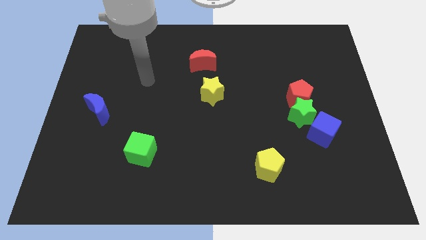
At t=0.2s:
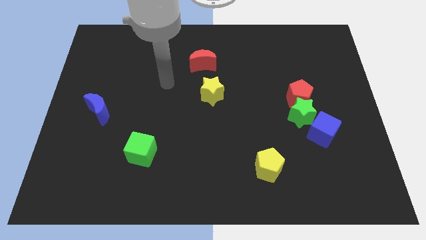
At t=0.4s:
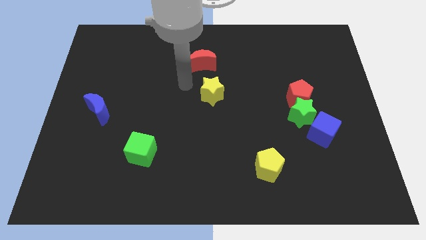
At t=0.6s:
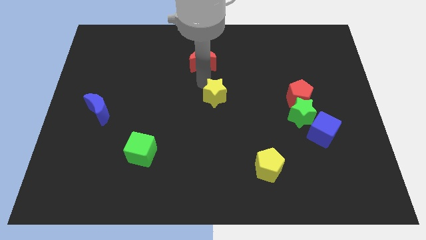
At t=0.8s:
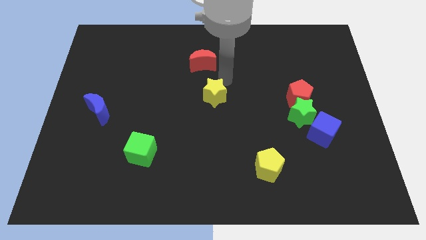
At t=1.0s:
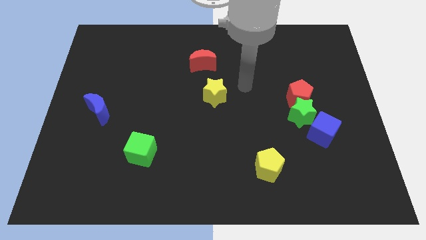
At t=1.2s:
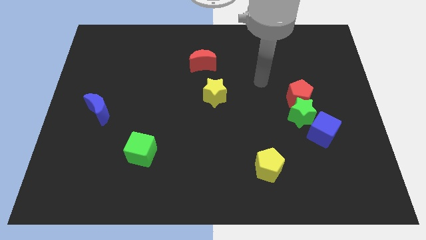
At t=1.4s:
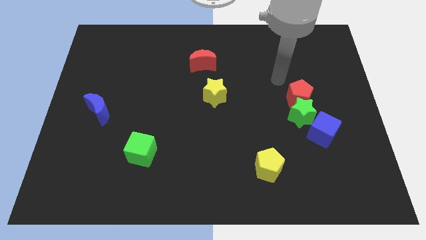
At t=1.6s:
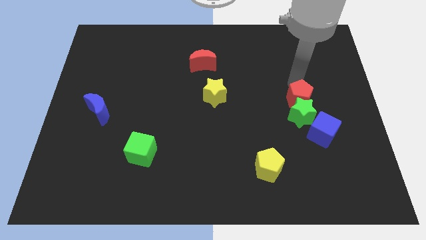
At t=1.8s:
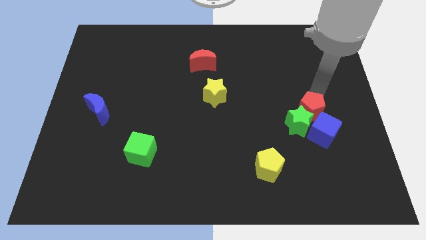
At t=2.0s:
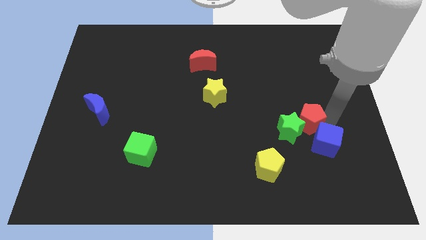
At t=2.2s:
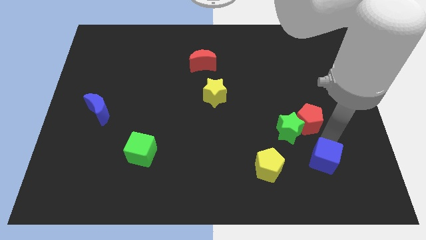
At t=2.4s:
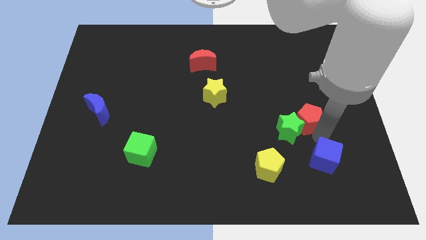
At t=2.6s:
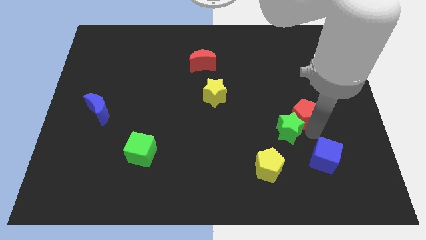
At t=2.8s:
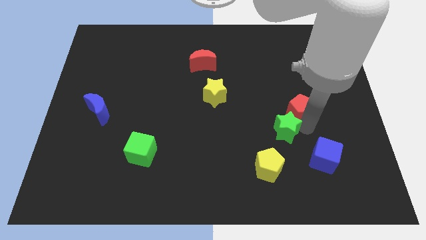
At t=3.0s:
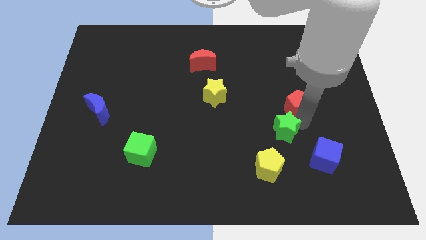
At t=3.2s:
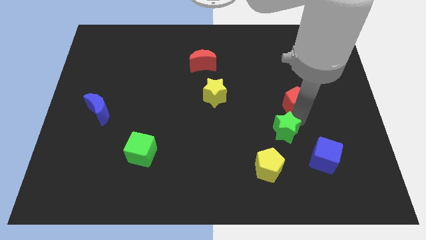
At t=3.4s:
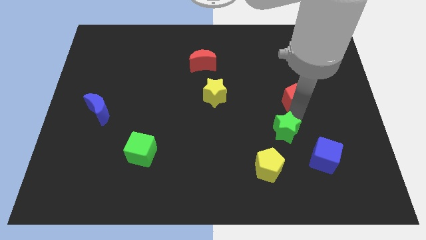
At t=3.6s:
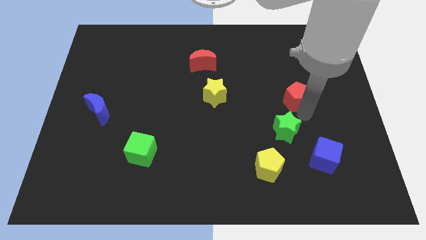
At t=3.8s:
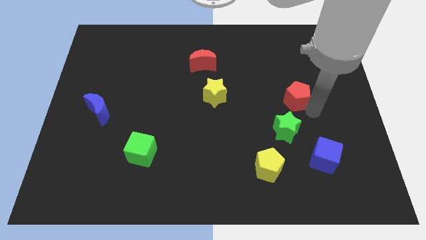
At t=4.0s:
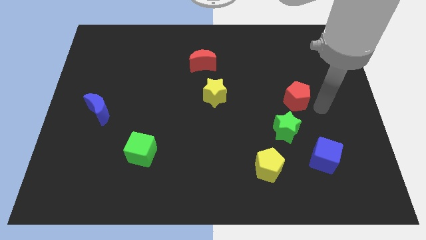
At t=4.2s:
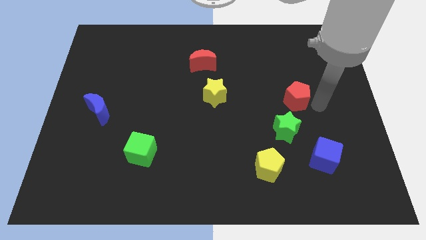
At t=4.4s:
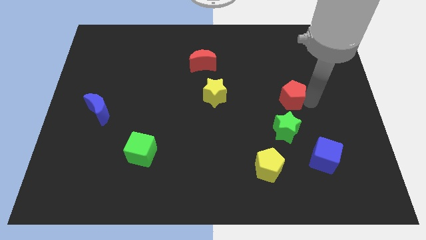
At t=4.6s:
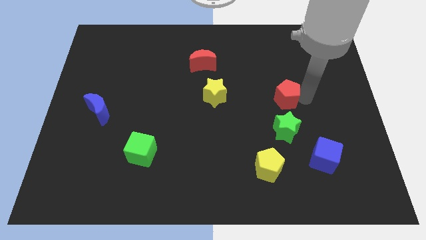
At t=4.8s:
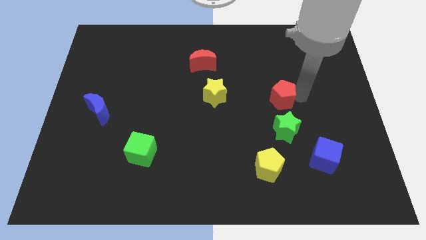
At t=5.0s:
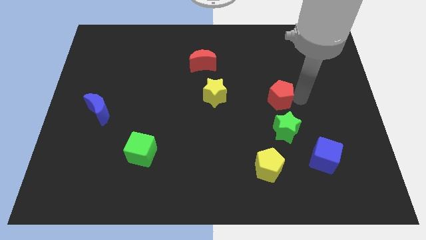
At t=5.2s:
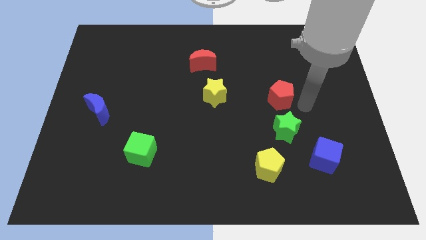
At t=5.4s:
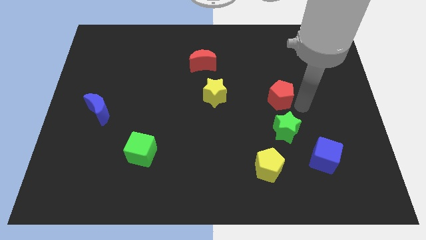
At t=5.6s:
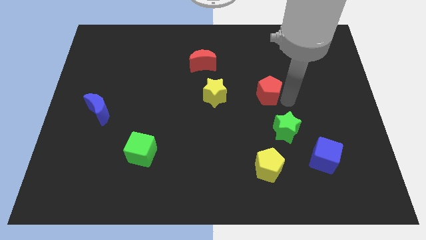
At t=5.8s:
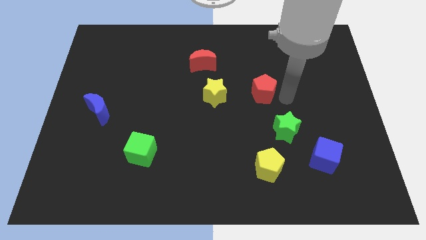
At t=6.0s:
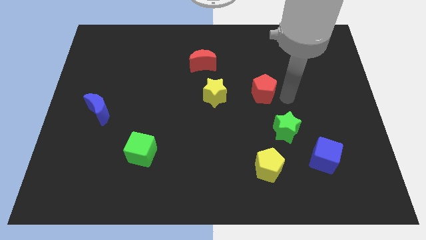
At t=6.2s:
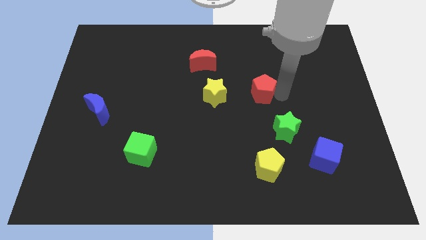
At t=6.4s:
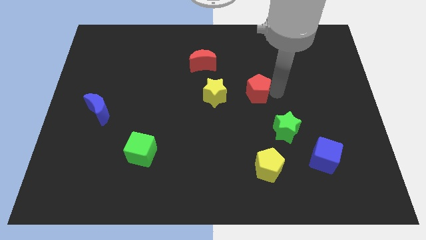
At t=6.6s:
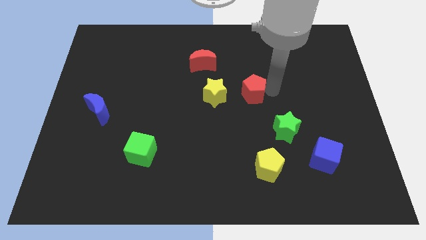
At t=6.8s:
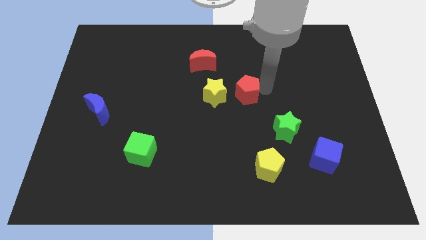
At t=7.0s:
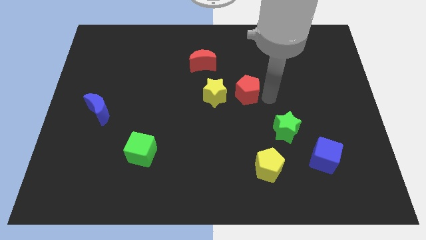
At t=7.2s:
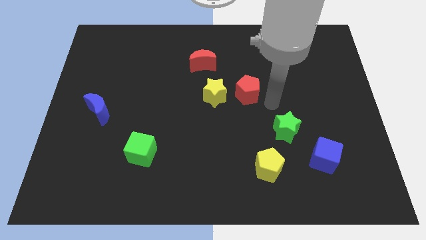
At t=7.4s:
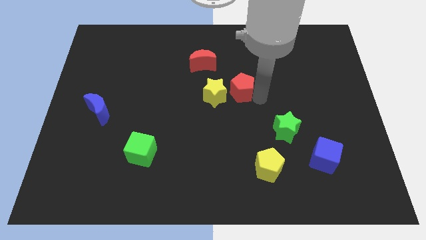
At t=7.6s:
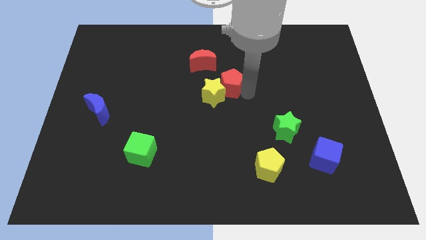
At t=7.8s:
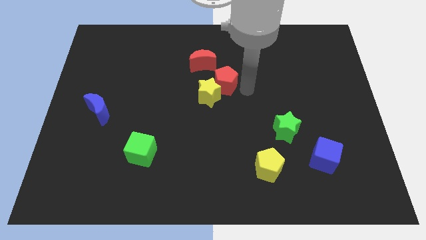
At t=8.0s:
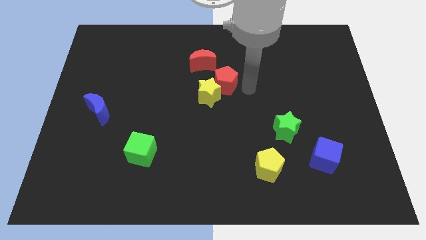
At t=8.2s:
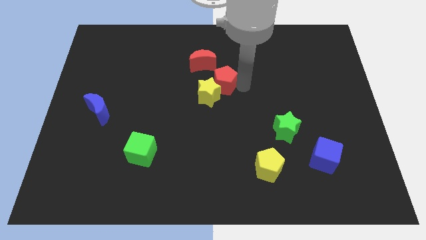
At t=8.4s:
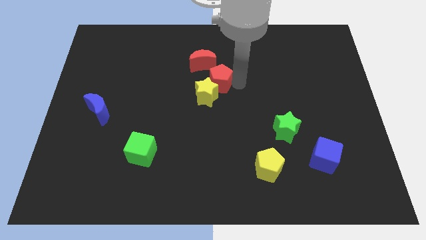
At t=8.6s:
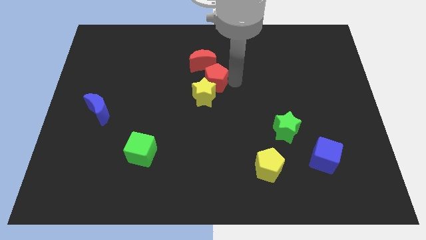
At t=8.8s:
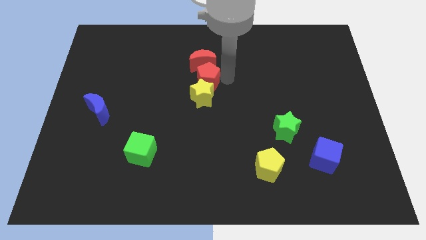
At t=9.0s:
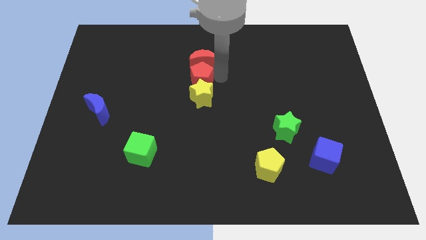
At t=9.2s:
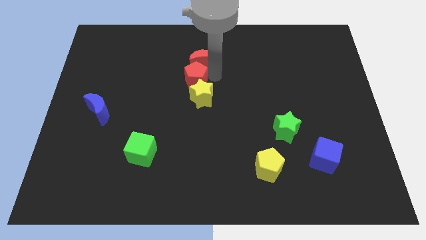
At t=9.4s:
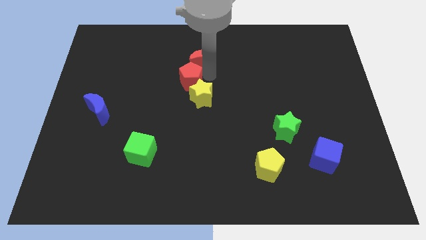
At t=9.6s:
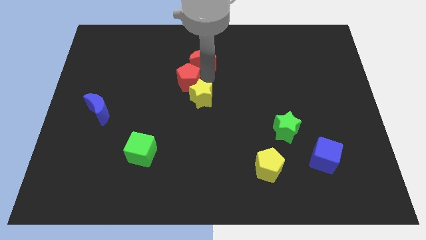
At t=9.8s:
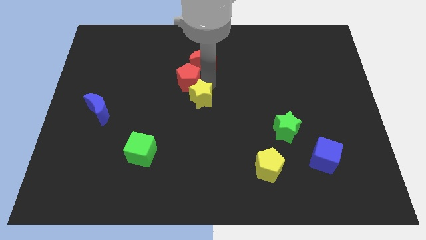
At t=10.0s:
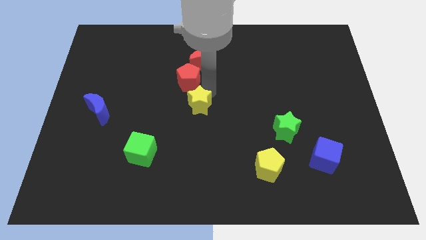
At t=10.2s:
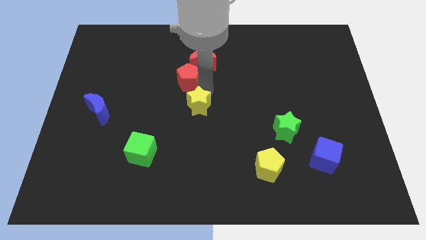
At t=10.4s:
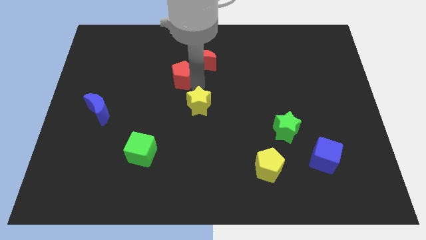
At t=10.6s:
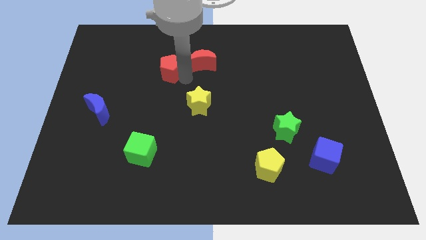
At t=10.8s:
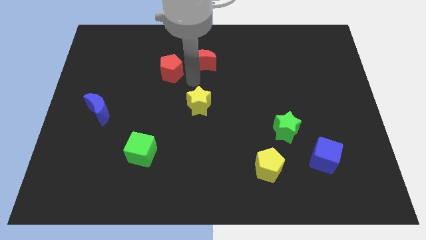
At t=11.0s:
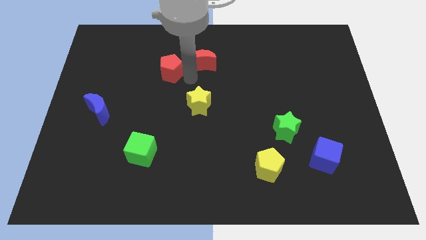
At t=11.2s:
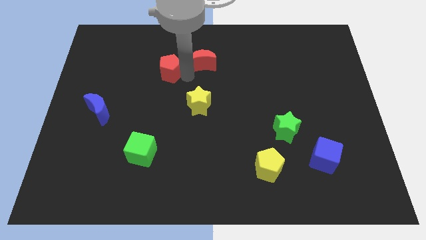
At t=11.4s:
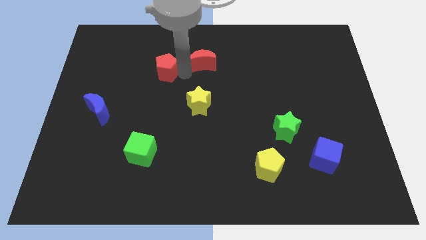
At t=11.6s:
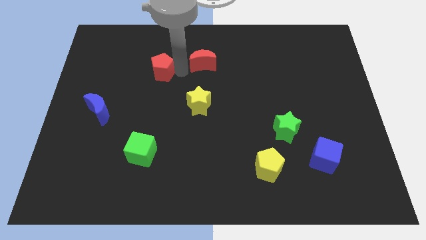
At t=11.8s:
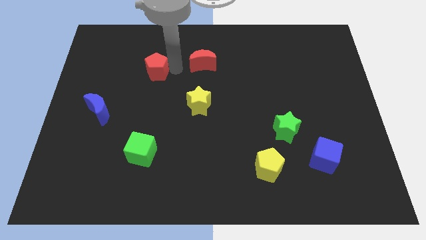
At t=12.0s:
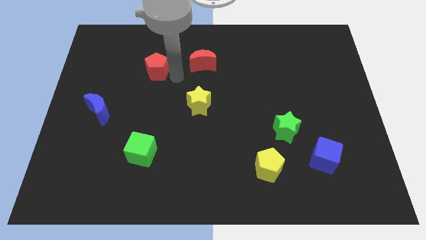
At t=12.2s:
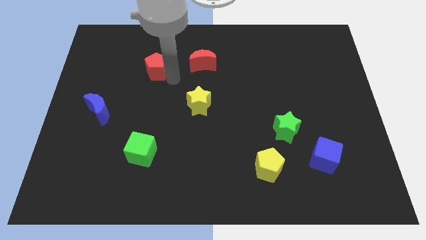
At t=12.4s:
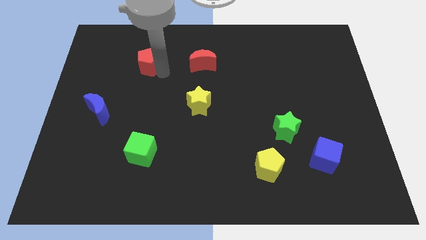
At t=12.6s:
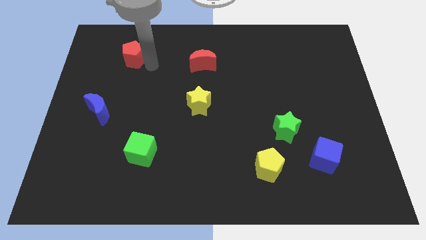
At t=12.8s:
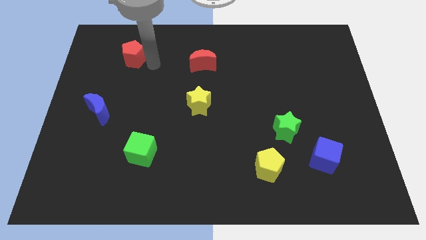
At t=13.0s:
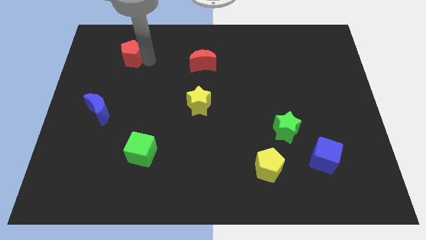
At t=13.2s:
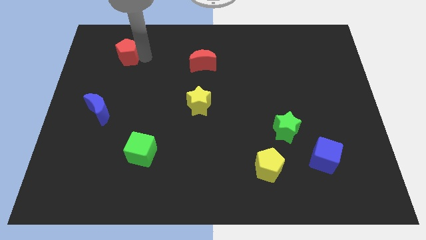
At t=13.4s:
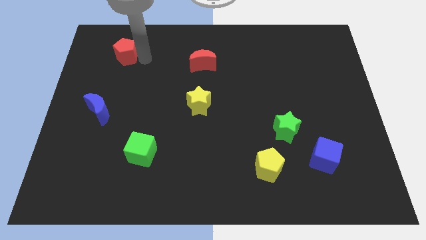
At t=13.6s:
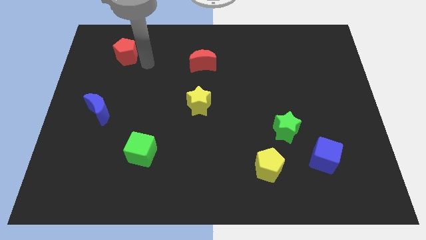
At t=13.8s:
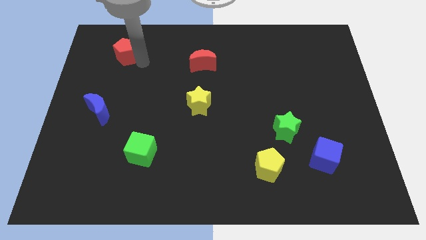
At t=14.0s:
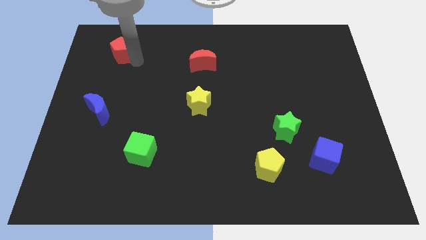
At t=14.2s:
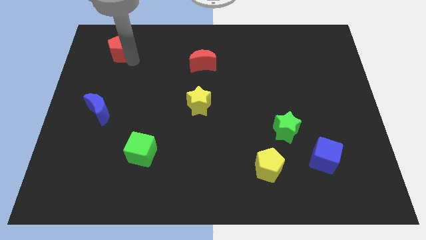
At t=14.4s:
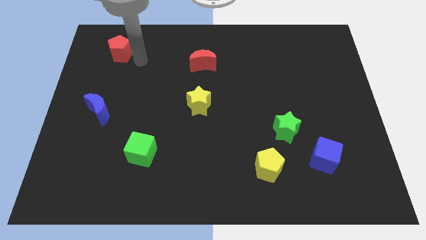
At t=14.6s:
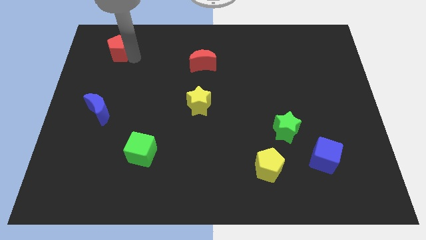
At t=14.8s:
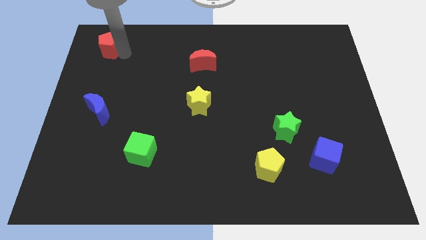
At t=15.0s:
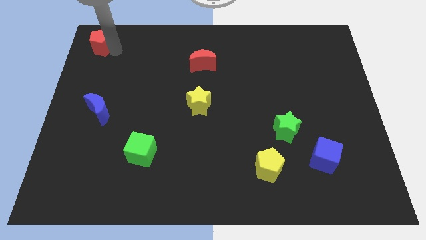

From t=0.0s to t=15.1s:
put the red pentagon to the top left corner

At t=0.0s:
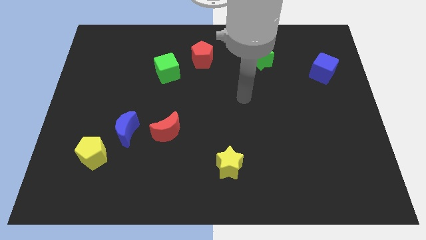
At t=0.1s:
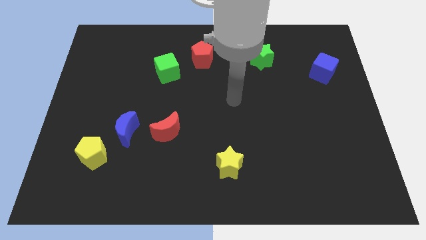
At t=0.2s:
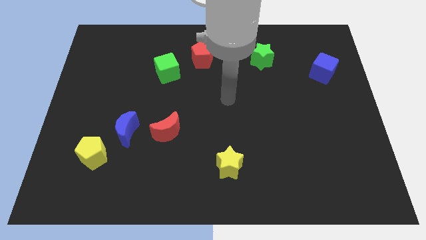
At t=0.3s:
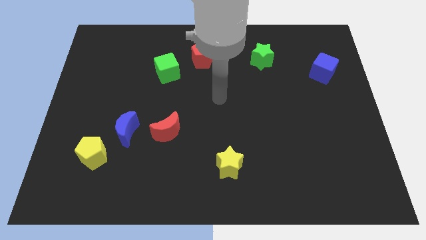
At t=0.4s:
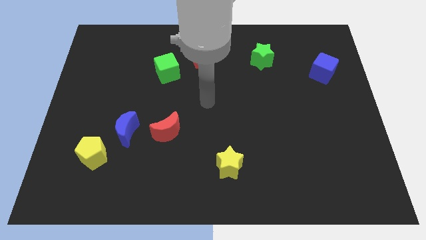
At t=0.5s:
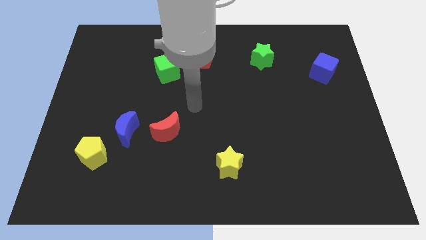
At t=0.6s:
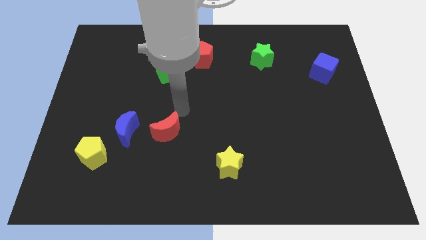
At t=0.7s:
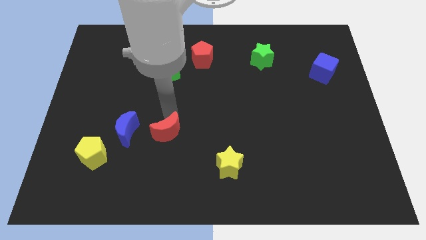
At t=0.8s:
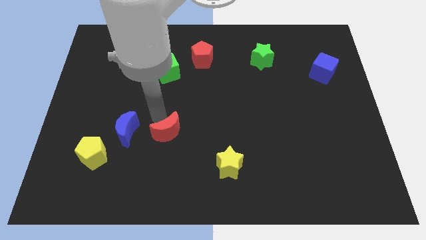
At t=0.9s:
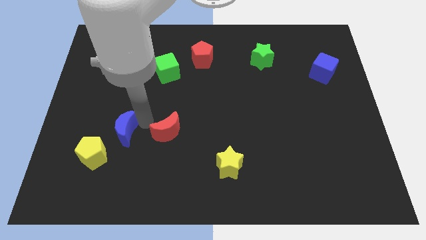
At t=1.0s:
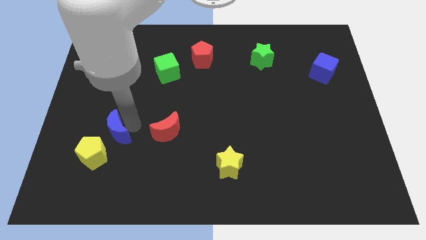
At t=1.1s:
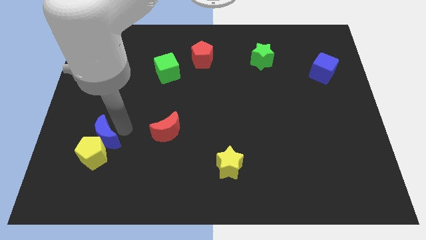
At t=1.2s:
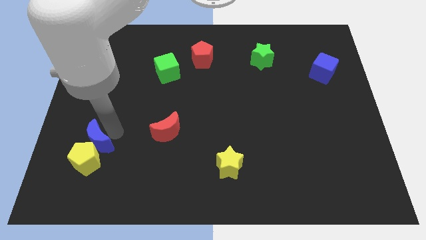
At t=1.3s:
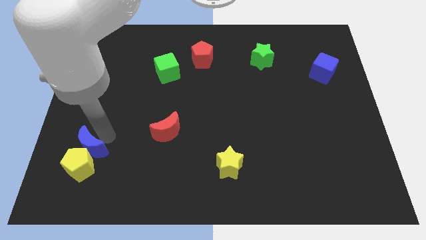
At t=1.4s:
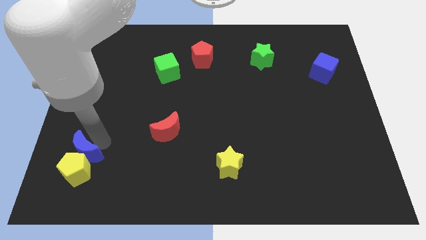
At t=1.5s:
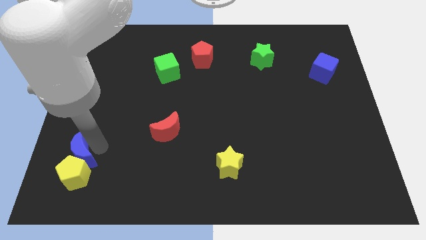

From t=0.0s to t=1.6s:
move the yellow pentagon to the lower left corner
